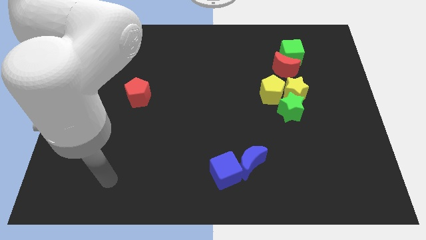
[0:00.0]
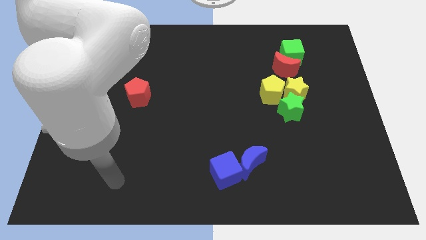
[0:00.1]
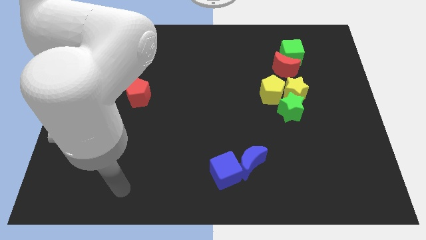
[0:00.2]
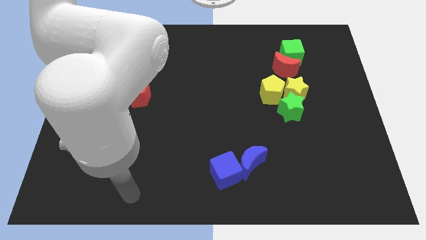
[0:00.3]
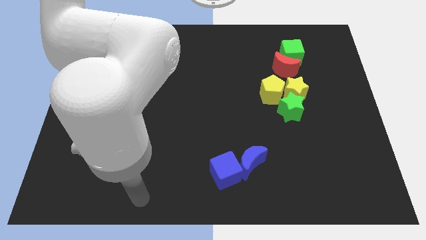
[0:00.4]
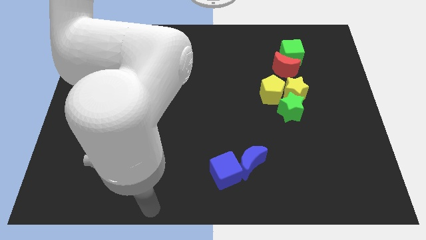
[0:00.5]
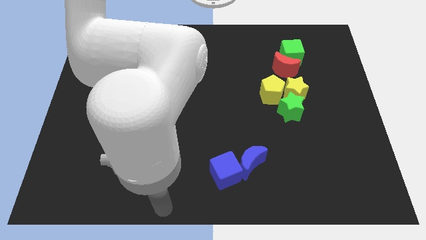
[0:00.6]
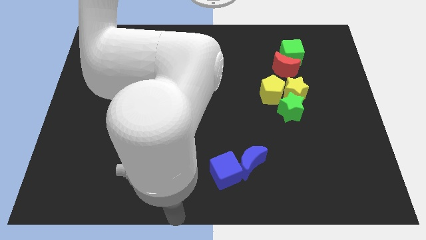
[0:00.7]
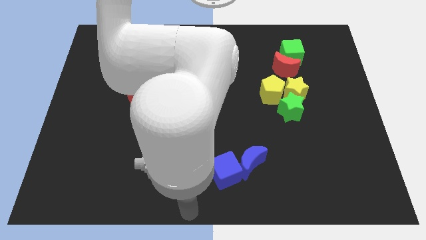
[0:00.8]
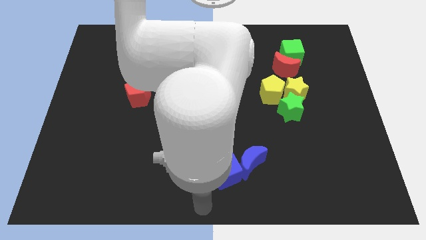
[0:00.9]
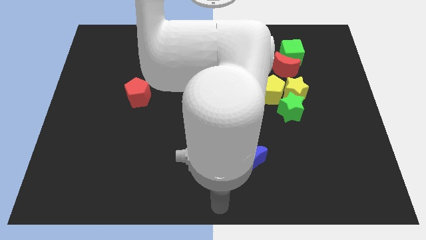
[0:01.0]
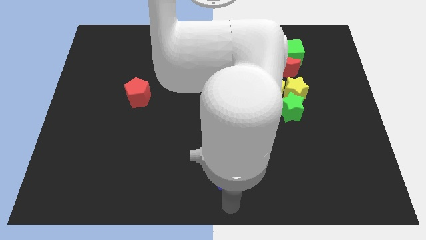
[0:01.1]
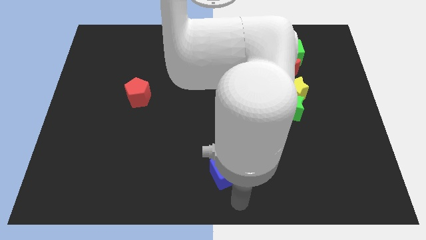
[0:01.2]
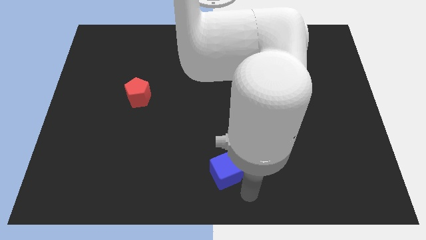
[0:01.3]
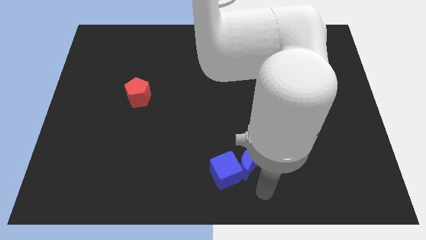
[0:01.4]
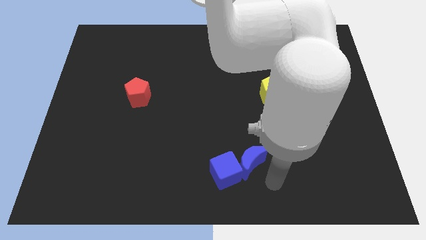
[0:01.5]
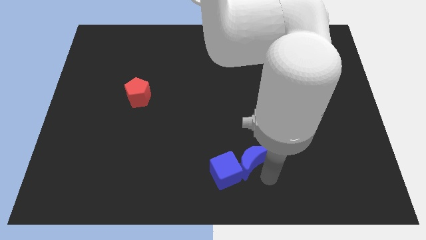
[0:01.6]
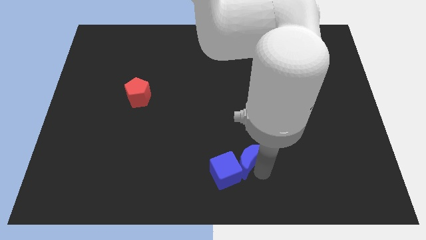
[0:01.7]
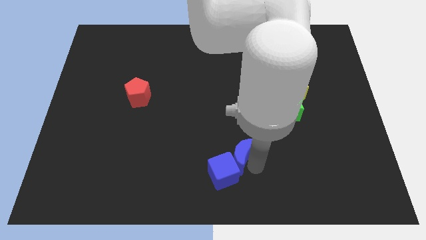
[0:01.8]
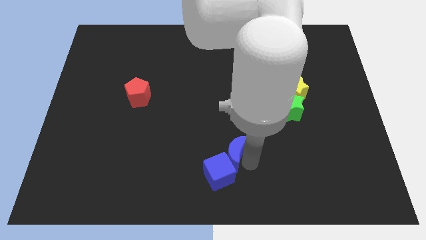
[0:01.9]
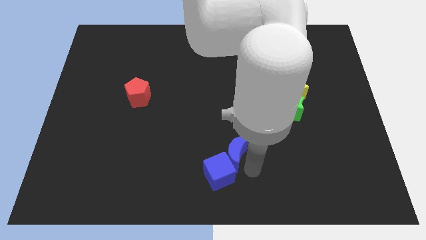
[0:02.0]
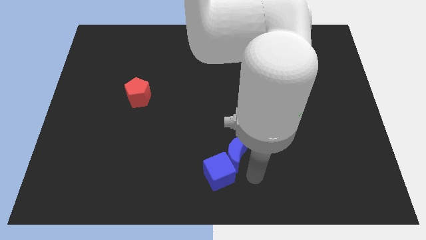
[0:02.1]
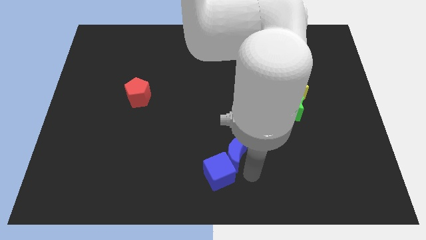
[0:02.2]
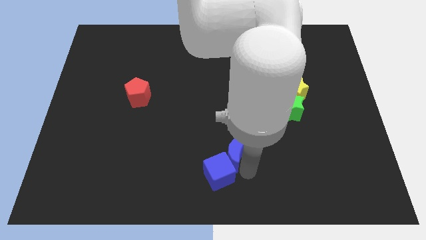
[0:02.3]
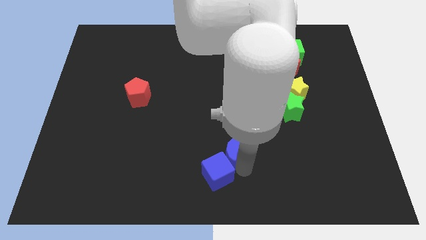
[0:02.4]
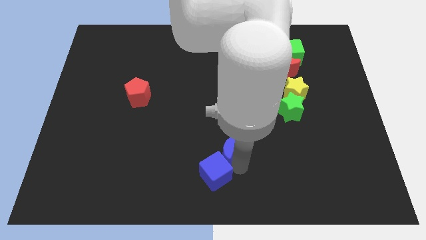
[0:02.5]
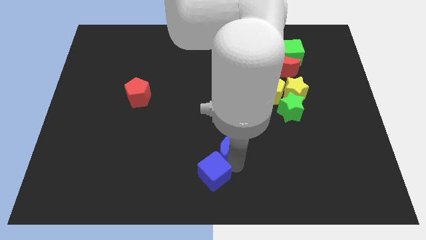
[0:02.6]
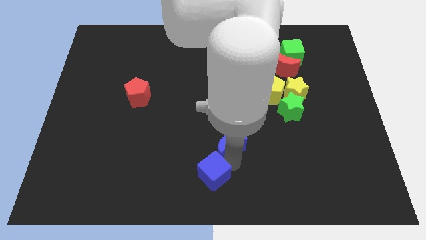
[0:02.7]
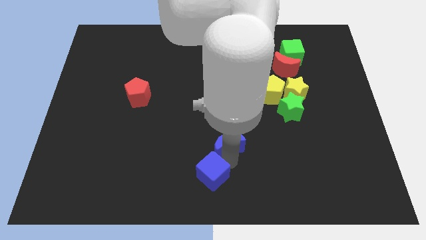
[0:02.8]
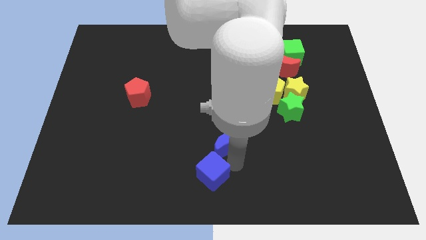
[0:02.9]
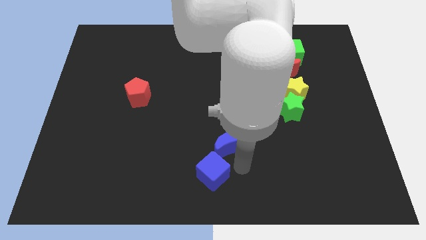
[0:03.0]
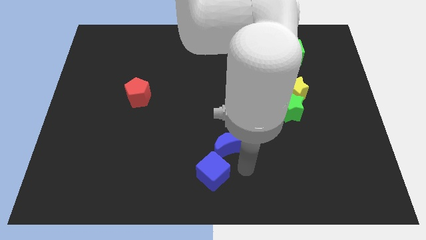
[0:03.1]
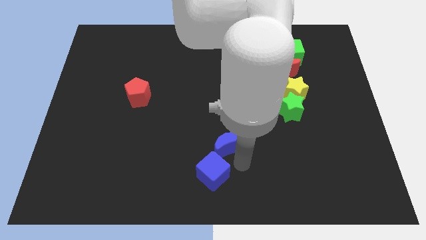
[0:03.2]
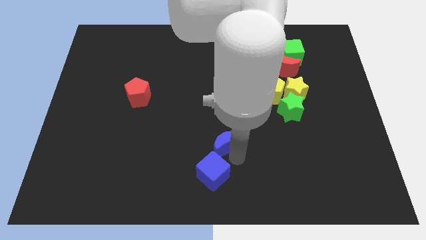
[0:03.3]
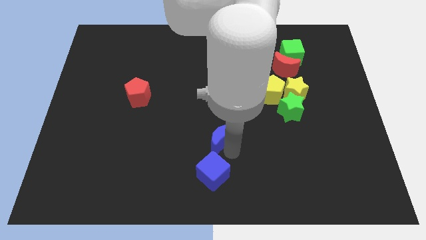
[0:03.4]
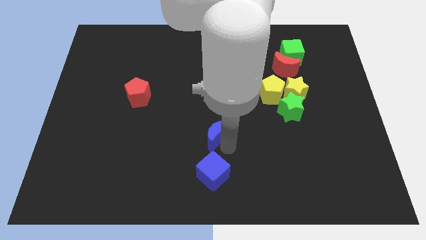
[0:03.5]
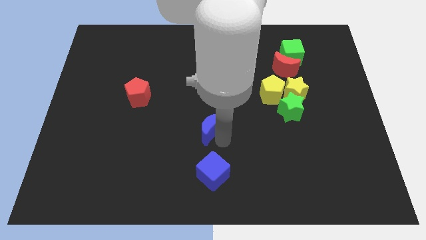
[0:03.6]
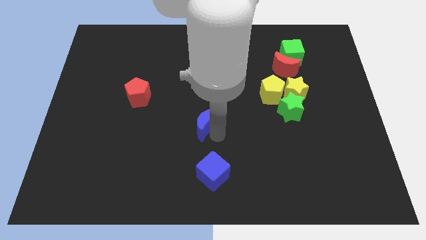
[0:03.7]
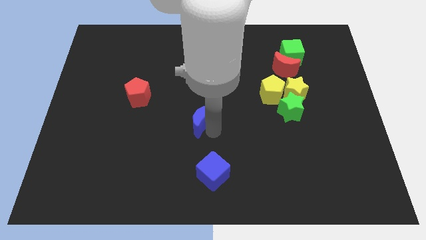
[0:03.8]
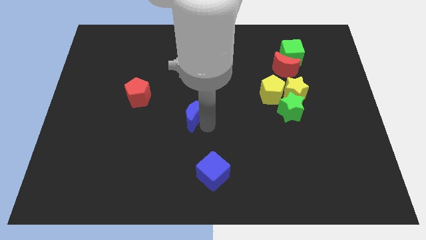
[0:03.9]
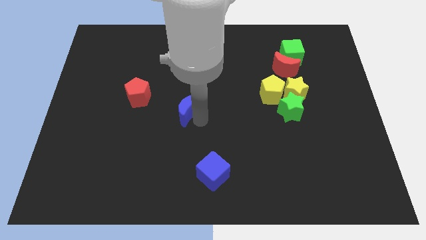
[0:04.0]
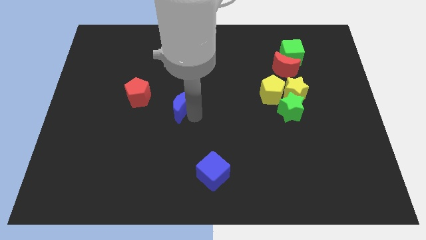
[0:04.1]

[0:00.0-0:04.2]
push the blue moon up and then left

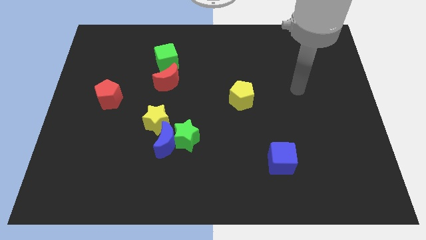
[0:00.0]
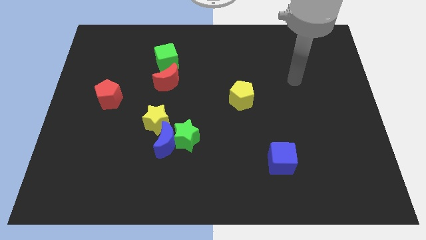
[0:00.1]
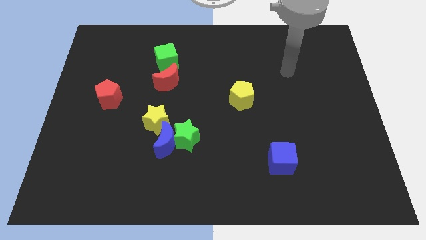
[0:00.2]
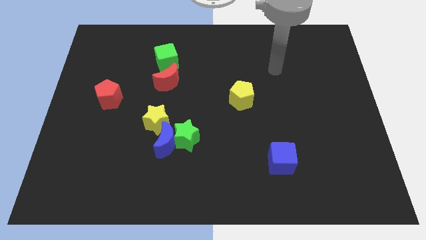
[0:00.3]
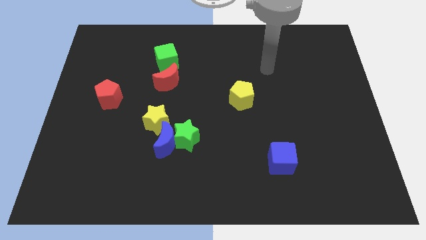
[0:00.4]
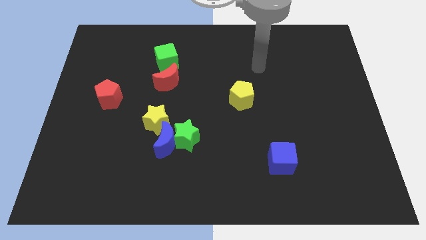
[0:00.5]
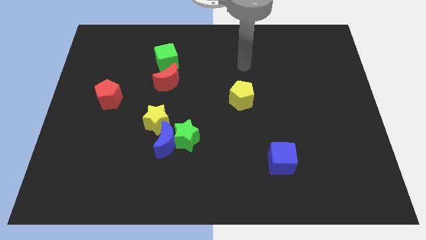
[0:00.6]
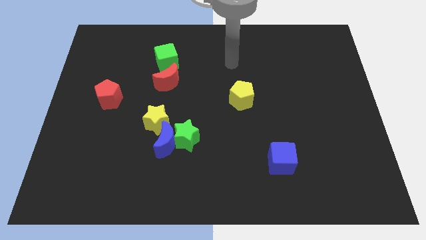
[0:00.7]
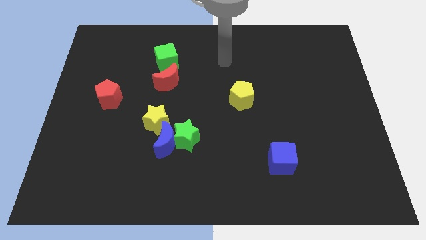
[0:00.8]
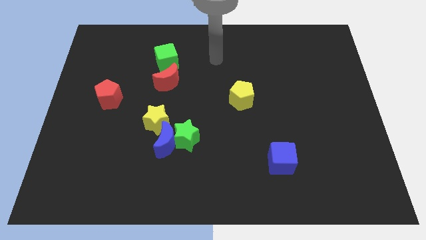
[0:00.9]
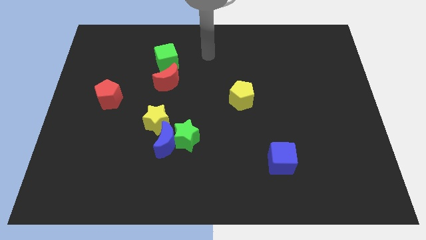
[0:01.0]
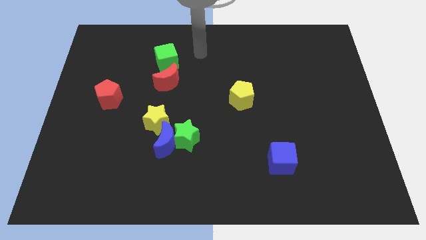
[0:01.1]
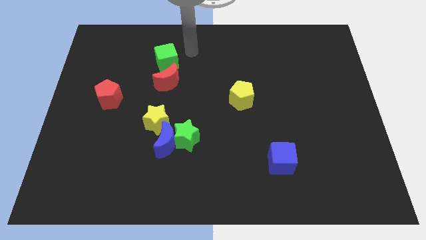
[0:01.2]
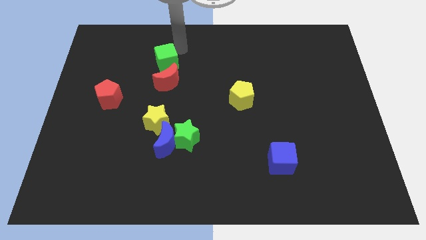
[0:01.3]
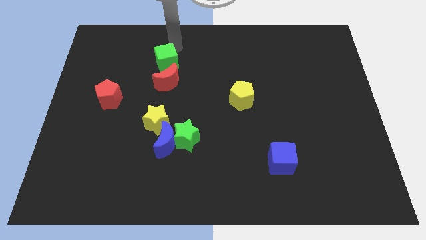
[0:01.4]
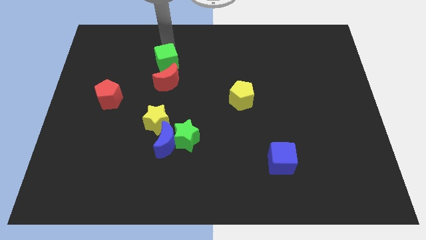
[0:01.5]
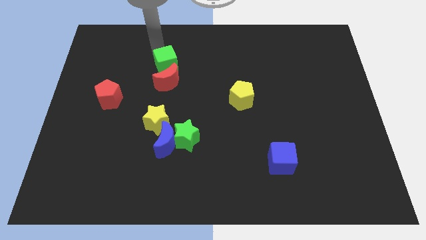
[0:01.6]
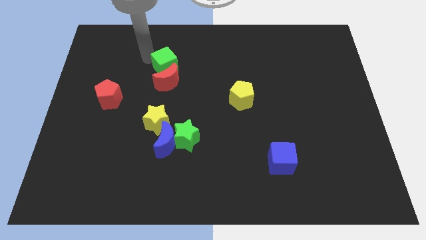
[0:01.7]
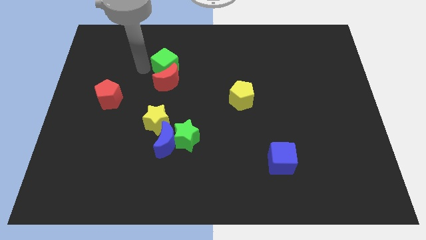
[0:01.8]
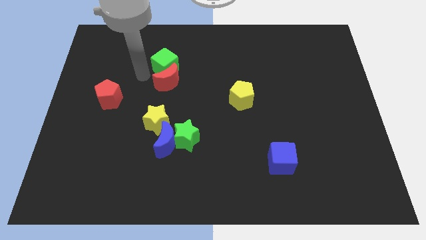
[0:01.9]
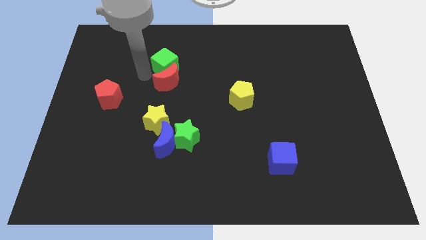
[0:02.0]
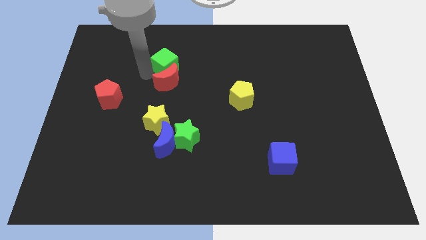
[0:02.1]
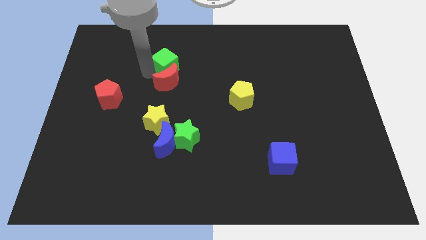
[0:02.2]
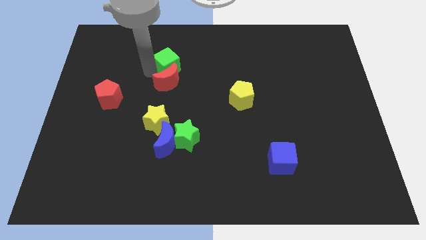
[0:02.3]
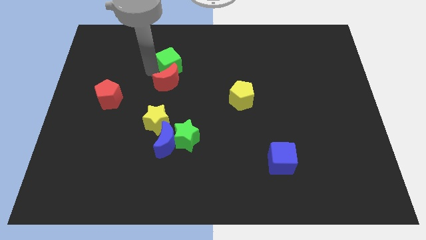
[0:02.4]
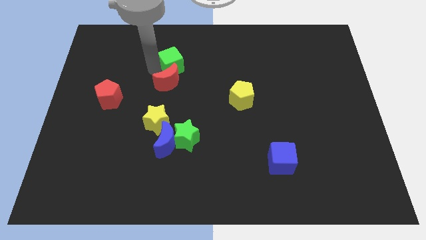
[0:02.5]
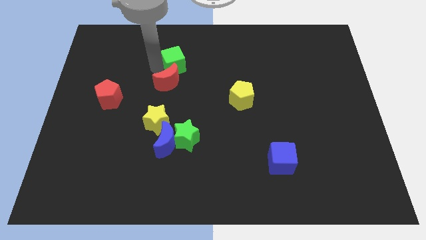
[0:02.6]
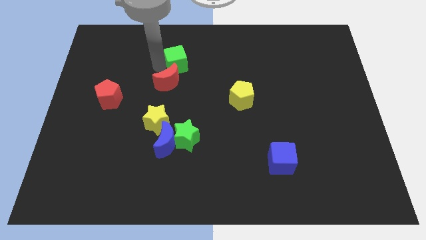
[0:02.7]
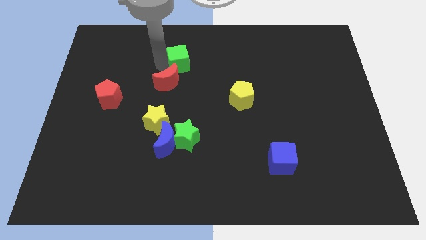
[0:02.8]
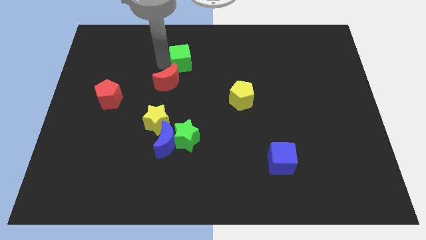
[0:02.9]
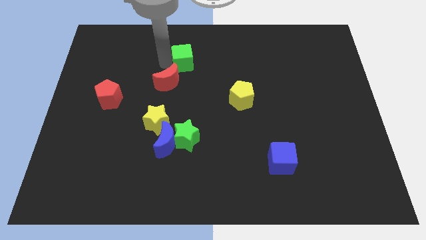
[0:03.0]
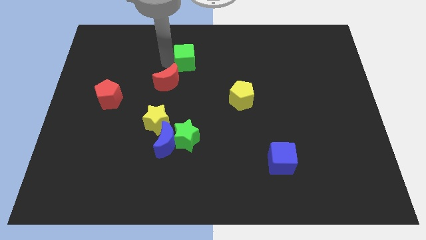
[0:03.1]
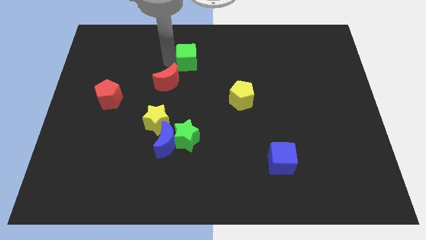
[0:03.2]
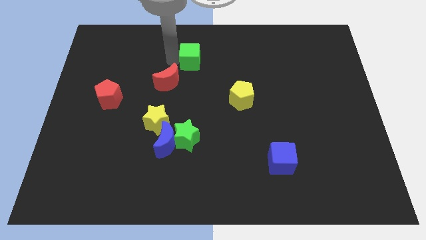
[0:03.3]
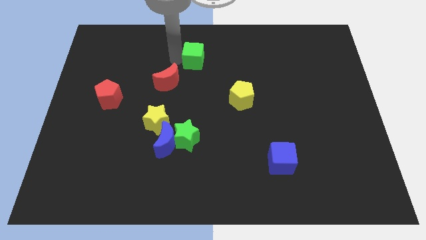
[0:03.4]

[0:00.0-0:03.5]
move the green cube slightly to the right
